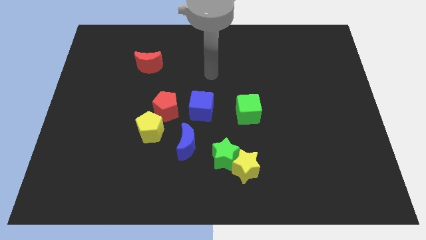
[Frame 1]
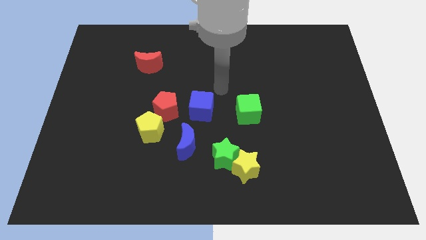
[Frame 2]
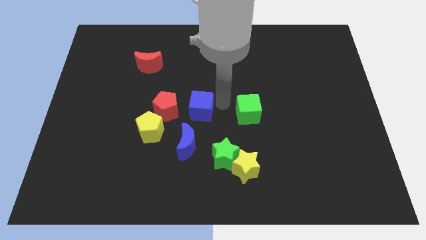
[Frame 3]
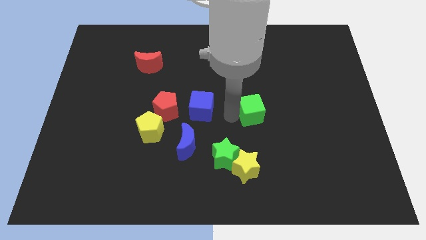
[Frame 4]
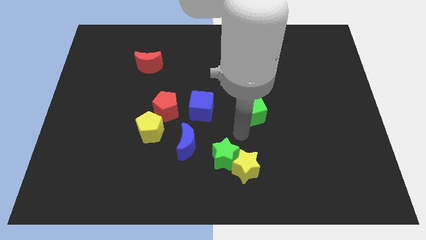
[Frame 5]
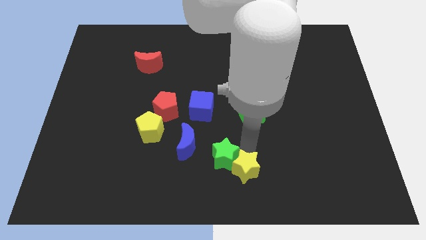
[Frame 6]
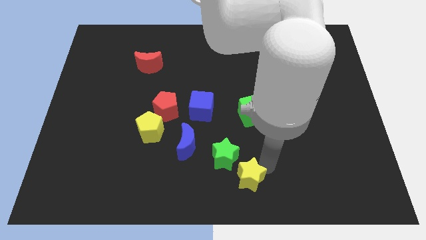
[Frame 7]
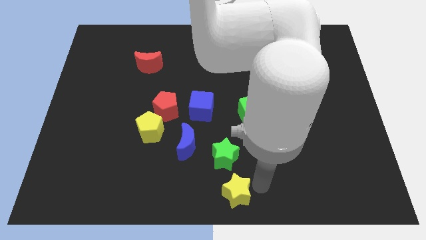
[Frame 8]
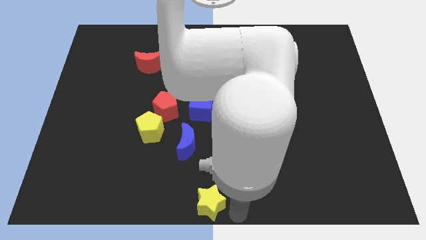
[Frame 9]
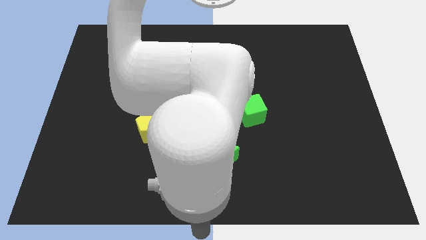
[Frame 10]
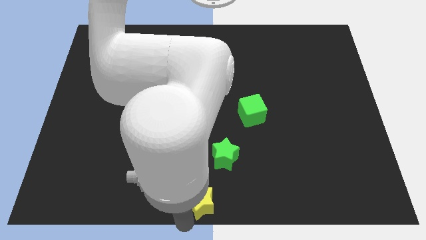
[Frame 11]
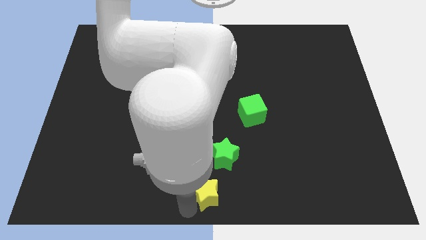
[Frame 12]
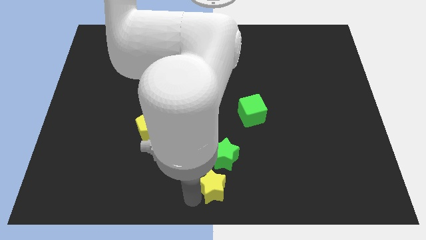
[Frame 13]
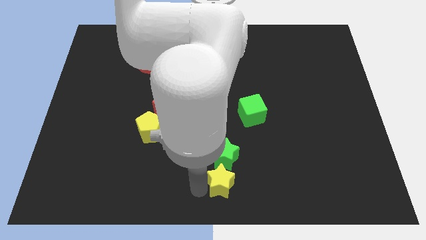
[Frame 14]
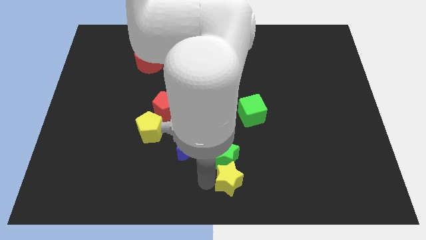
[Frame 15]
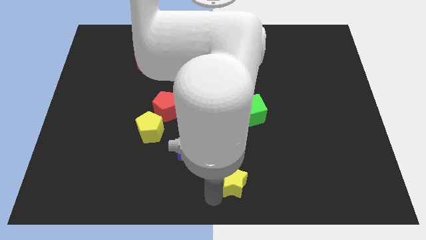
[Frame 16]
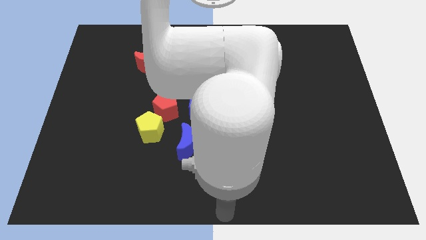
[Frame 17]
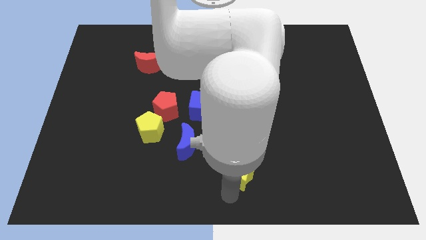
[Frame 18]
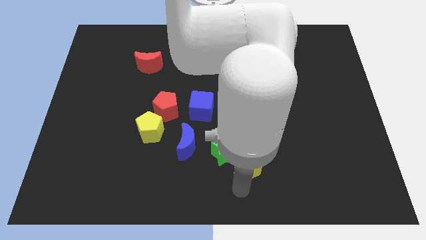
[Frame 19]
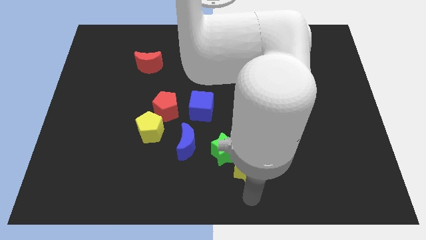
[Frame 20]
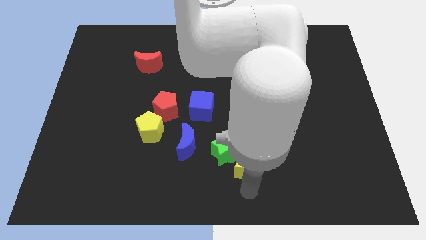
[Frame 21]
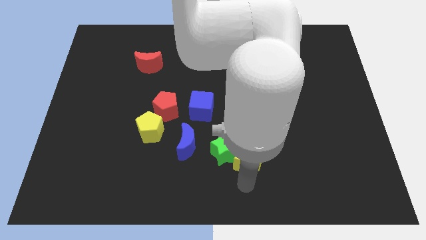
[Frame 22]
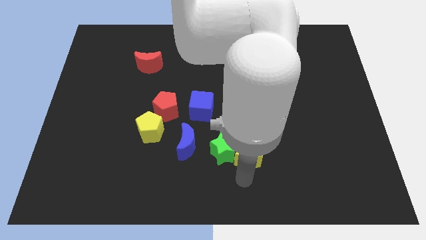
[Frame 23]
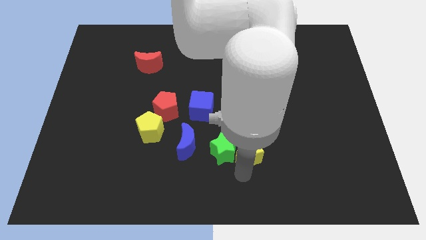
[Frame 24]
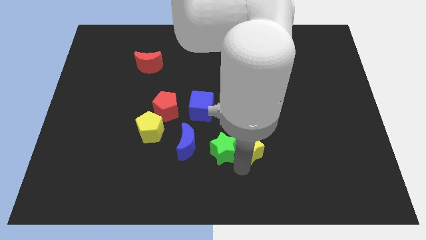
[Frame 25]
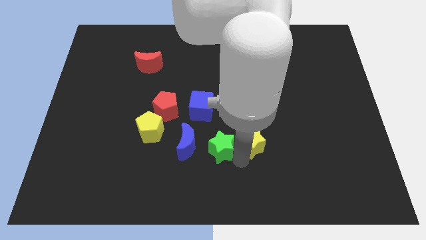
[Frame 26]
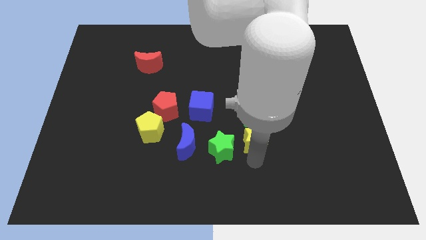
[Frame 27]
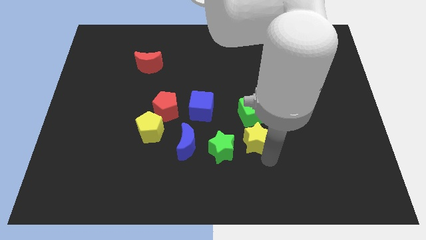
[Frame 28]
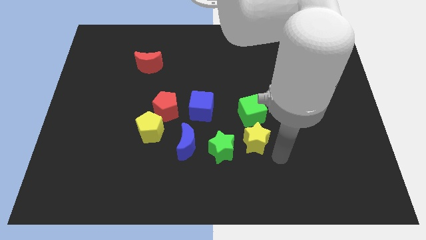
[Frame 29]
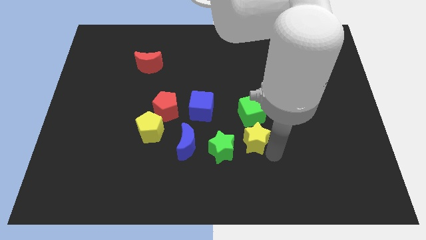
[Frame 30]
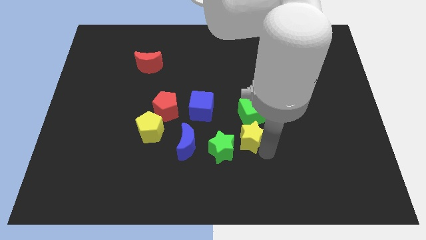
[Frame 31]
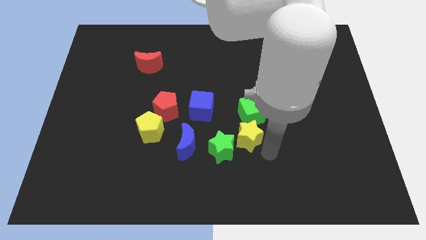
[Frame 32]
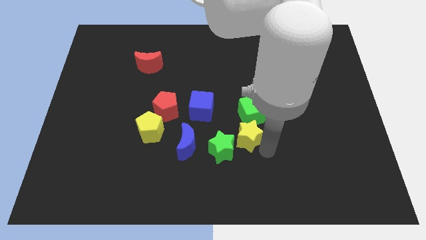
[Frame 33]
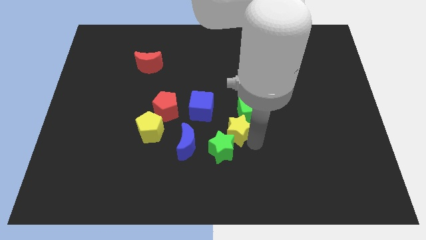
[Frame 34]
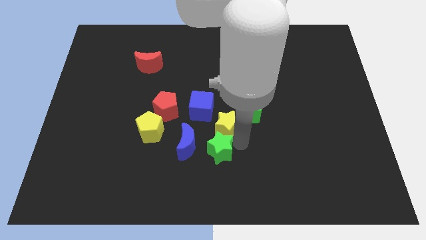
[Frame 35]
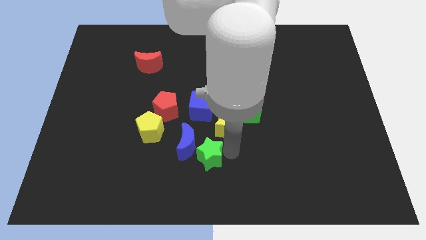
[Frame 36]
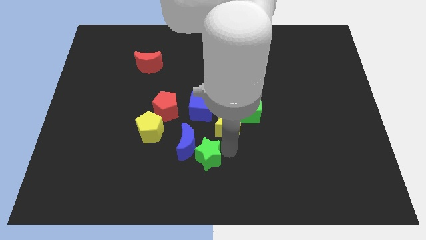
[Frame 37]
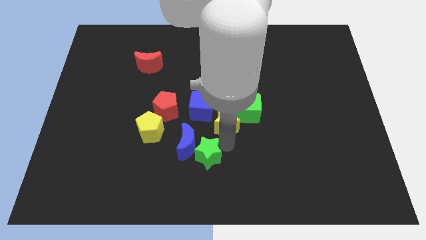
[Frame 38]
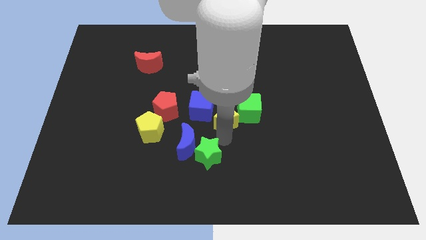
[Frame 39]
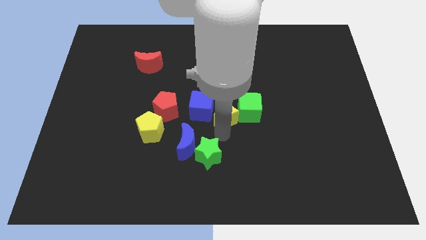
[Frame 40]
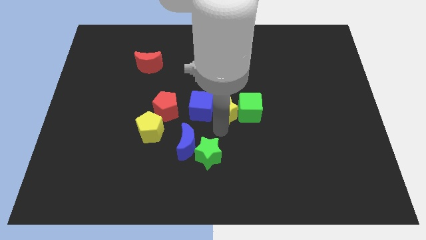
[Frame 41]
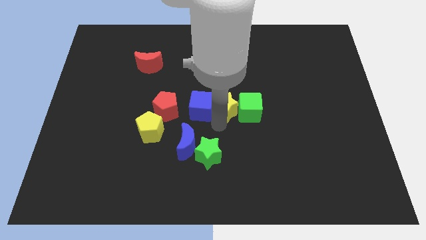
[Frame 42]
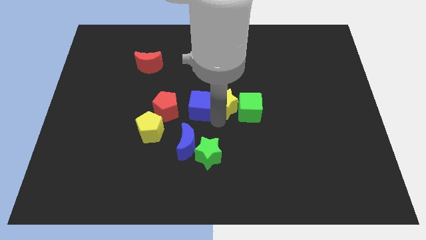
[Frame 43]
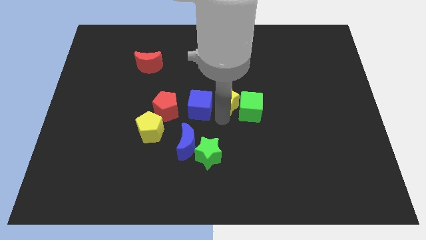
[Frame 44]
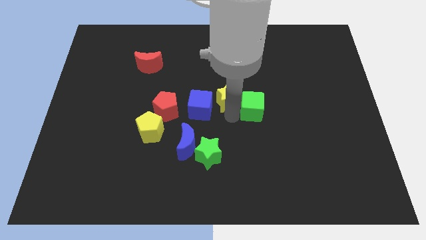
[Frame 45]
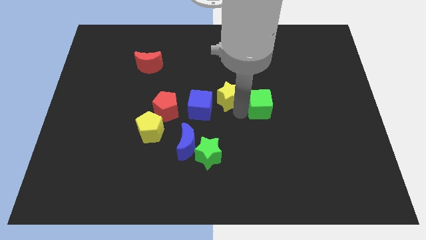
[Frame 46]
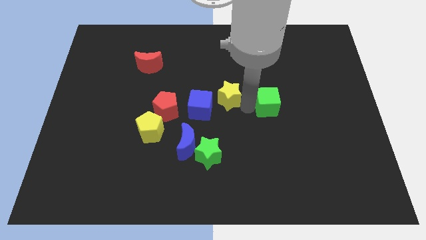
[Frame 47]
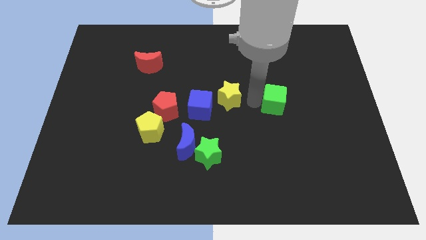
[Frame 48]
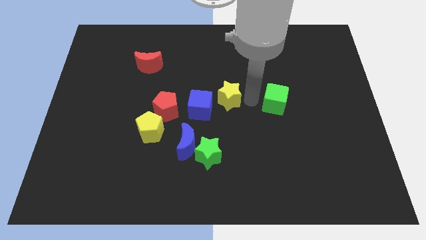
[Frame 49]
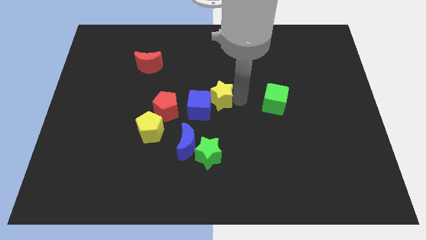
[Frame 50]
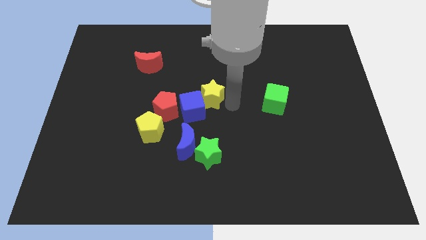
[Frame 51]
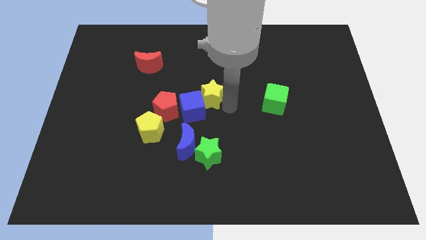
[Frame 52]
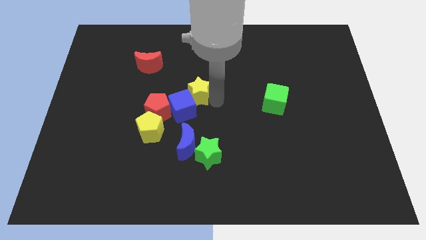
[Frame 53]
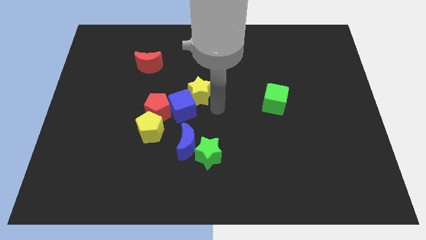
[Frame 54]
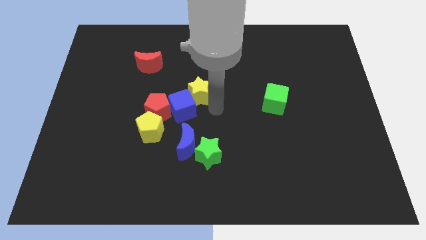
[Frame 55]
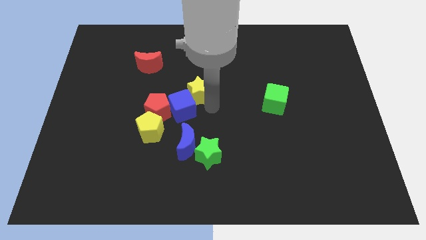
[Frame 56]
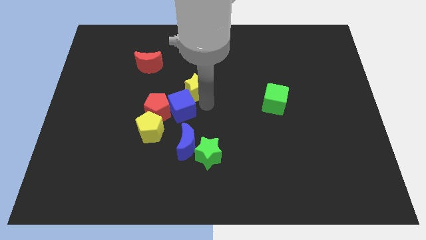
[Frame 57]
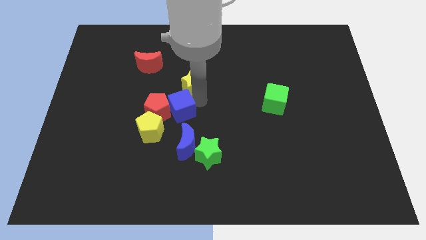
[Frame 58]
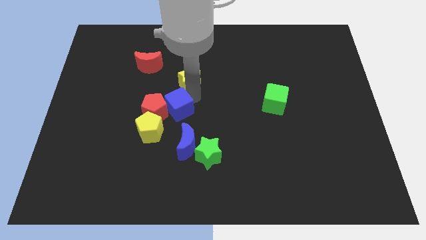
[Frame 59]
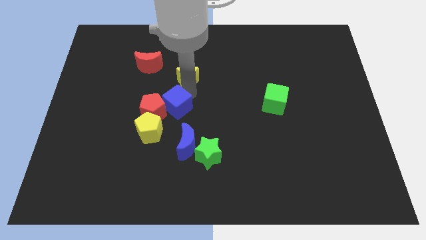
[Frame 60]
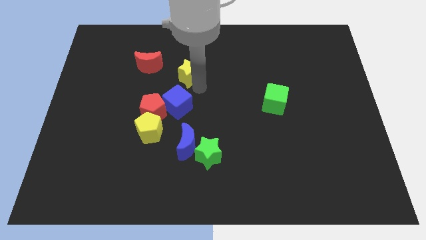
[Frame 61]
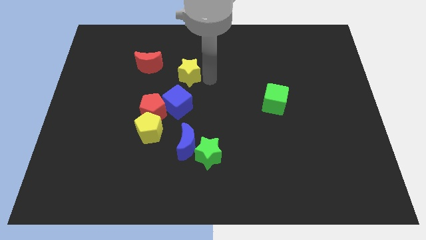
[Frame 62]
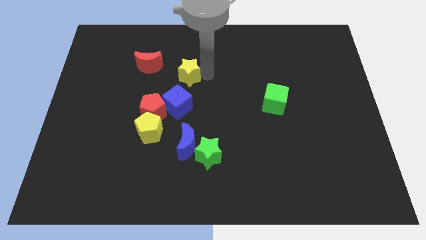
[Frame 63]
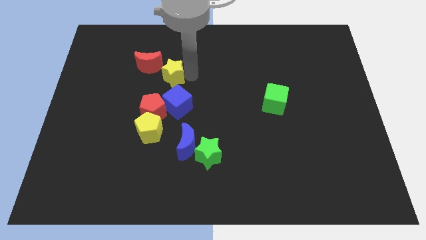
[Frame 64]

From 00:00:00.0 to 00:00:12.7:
slide the yellow star above the red pentagon

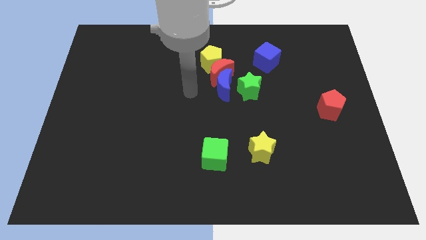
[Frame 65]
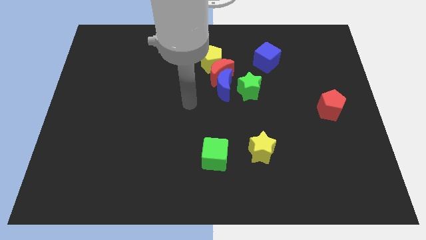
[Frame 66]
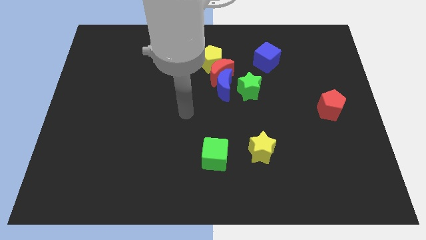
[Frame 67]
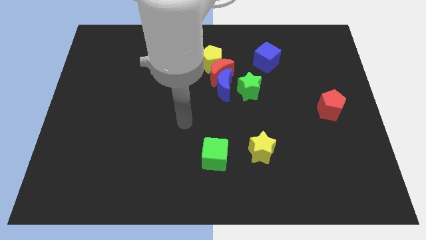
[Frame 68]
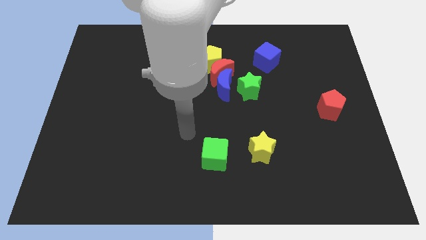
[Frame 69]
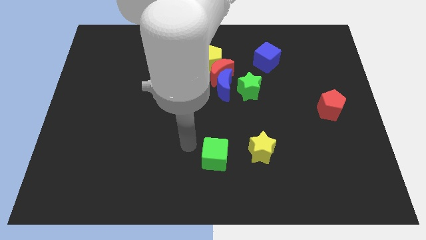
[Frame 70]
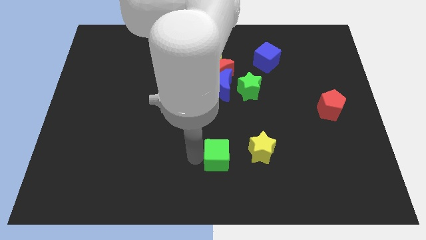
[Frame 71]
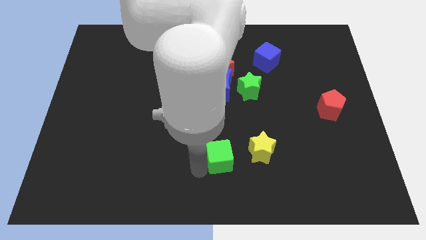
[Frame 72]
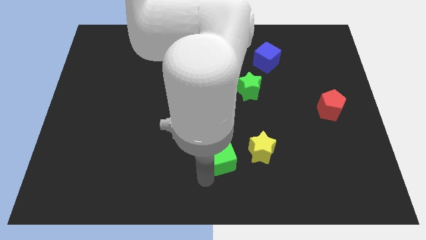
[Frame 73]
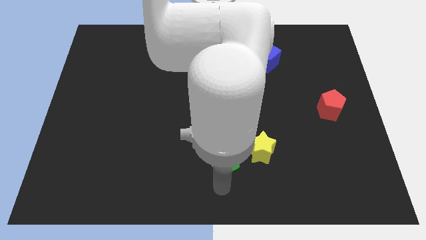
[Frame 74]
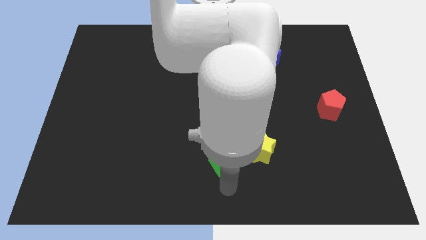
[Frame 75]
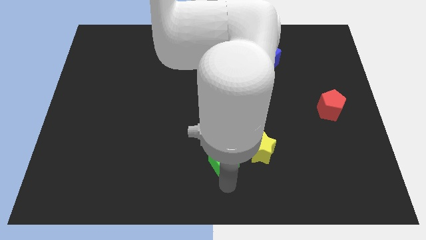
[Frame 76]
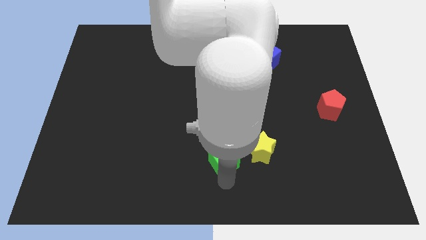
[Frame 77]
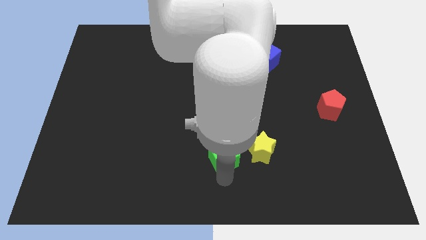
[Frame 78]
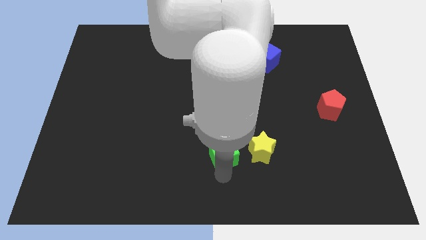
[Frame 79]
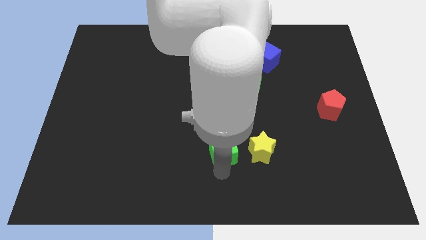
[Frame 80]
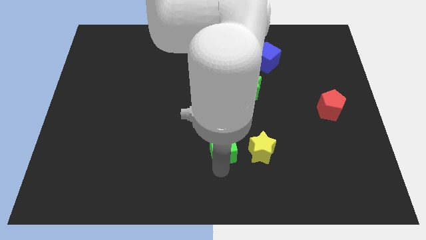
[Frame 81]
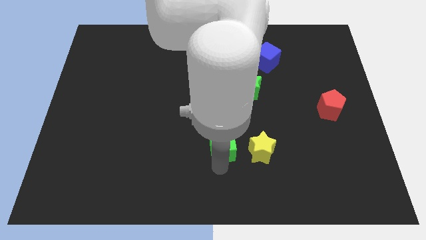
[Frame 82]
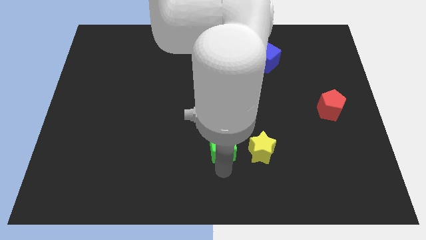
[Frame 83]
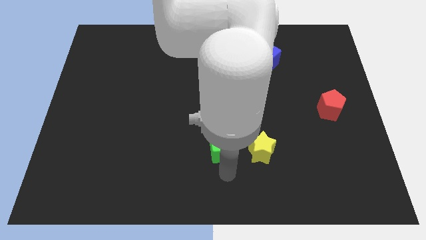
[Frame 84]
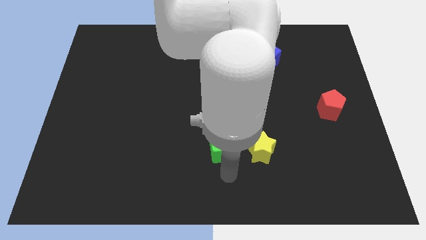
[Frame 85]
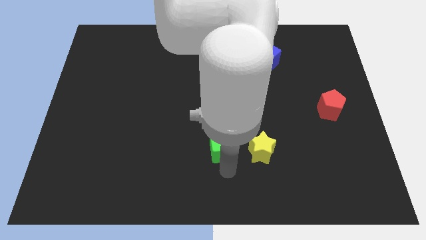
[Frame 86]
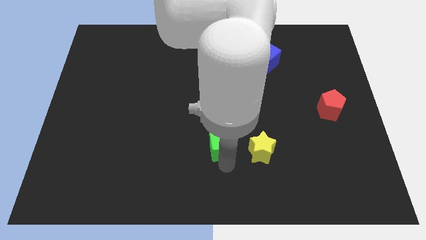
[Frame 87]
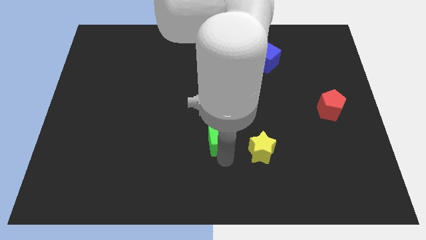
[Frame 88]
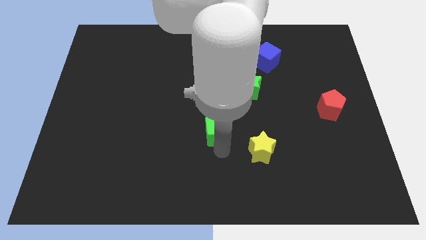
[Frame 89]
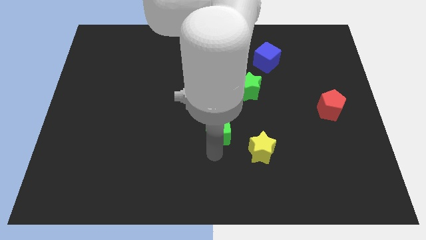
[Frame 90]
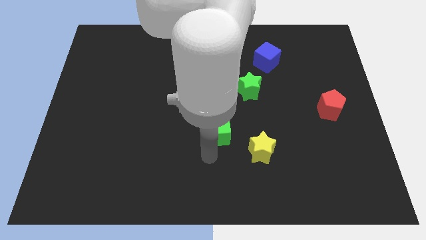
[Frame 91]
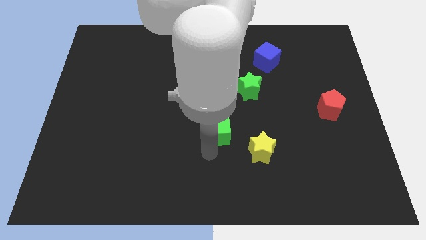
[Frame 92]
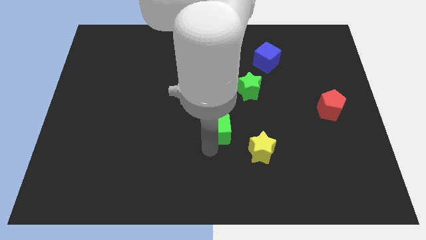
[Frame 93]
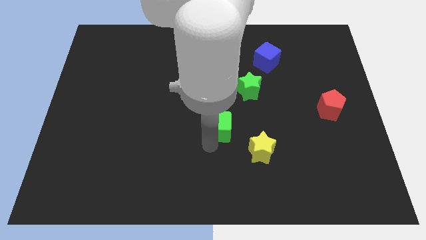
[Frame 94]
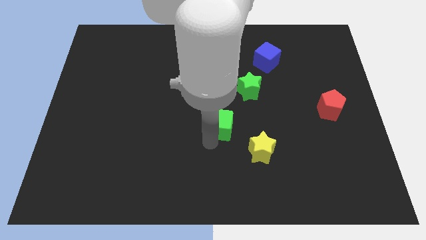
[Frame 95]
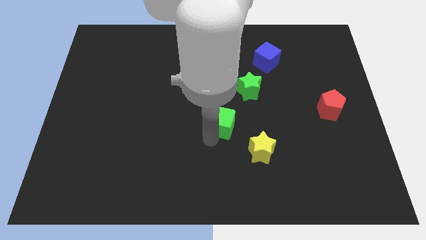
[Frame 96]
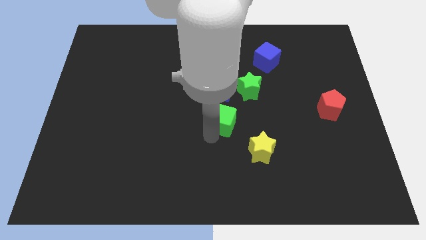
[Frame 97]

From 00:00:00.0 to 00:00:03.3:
put the green cube to the bottom left side of the green star
